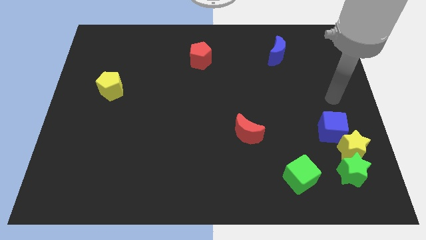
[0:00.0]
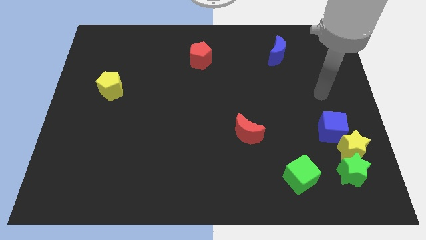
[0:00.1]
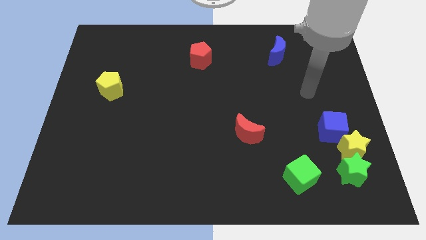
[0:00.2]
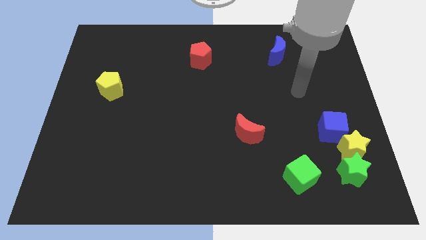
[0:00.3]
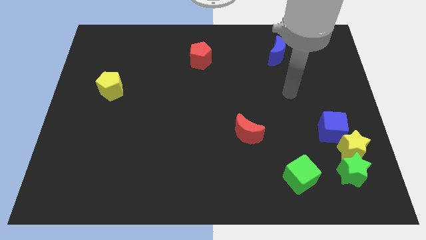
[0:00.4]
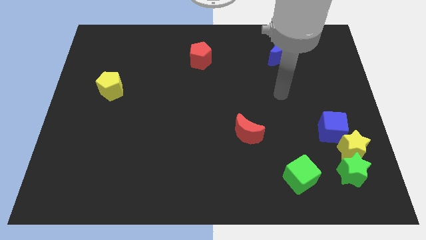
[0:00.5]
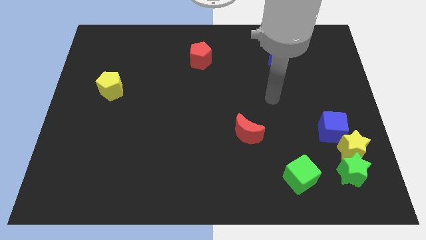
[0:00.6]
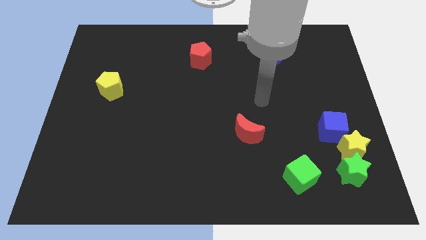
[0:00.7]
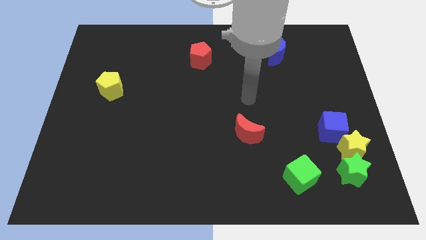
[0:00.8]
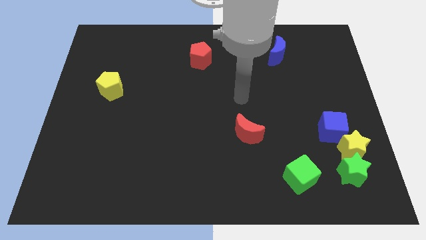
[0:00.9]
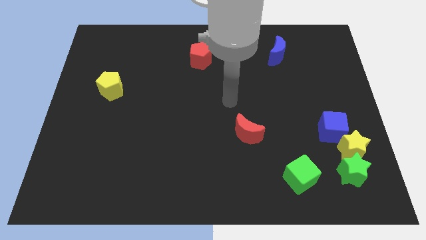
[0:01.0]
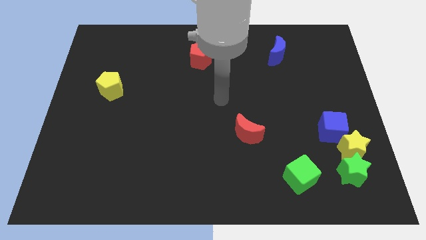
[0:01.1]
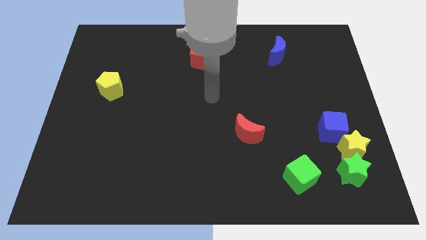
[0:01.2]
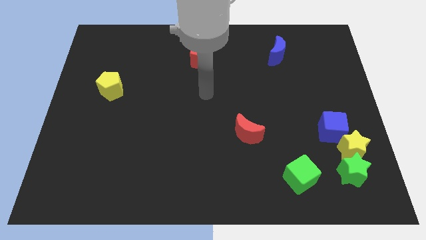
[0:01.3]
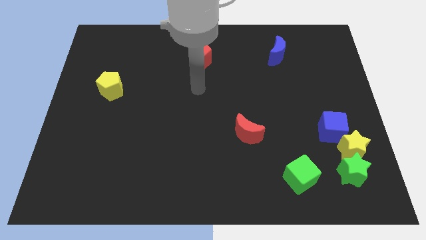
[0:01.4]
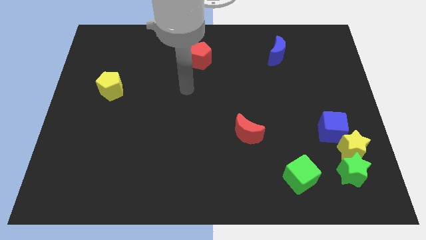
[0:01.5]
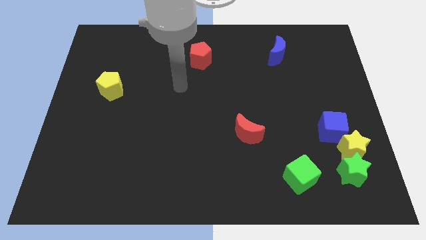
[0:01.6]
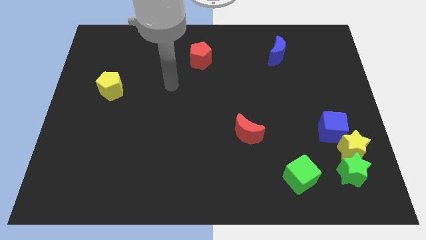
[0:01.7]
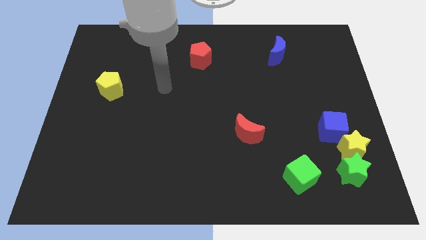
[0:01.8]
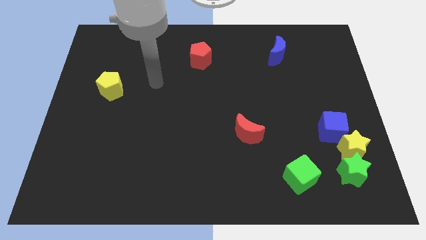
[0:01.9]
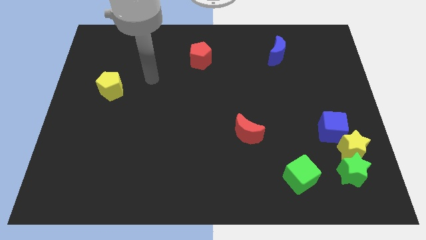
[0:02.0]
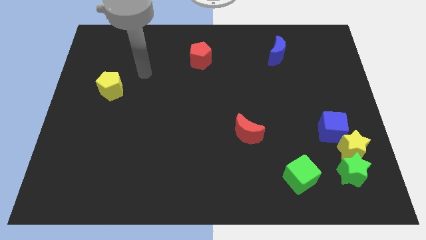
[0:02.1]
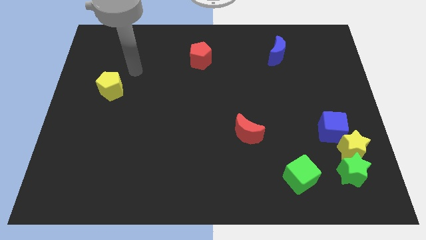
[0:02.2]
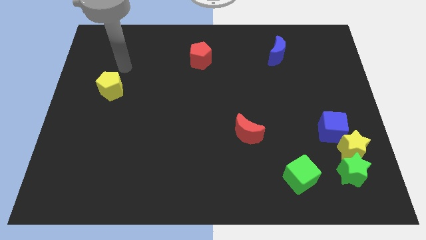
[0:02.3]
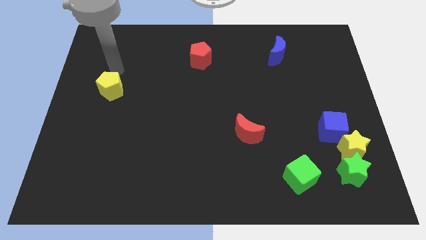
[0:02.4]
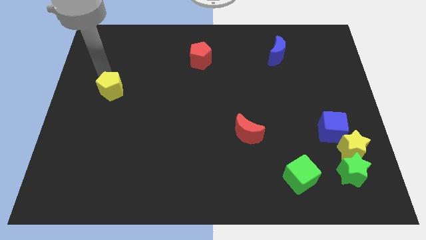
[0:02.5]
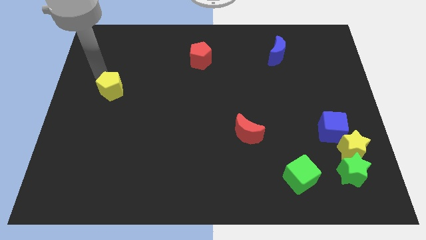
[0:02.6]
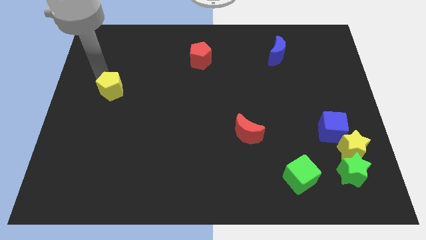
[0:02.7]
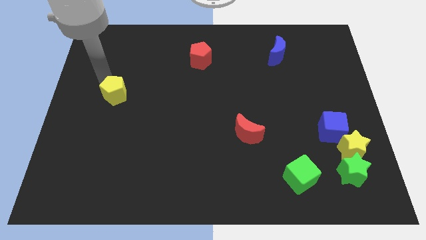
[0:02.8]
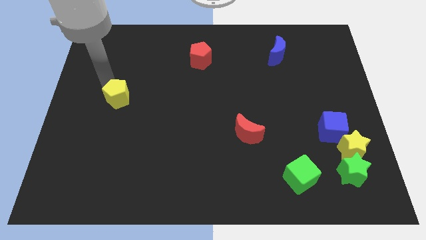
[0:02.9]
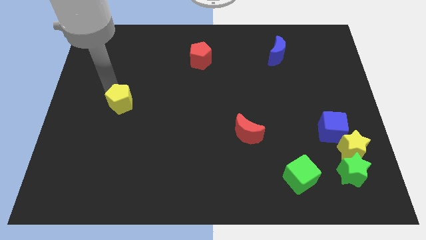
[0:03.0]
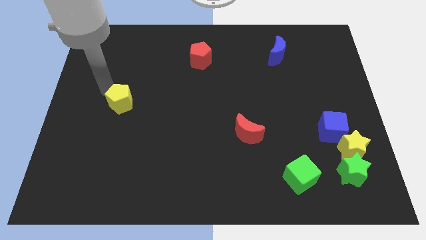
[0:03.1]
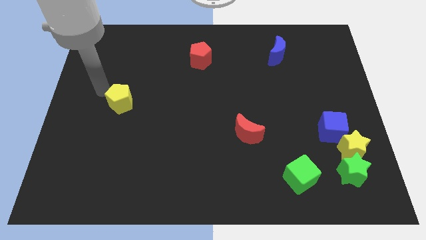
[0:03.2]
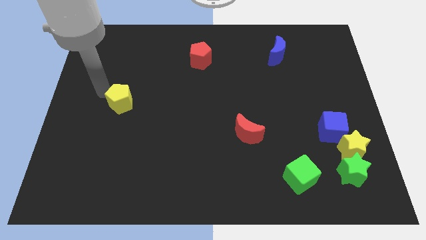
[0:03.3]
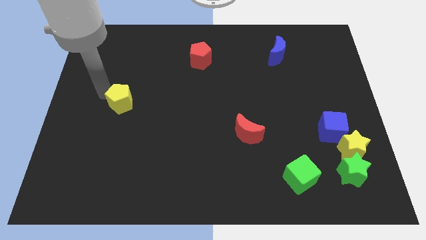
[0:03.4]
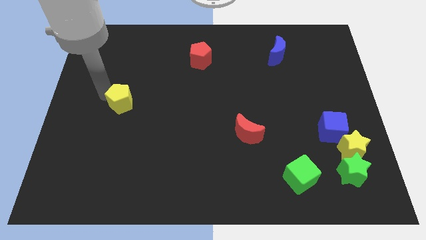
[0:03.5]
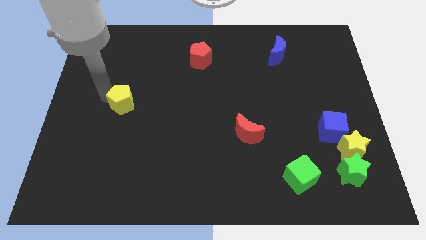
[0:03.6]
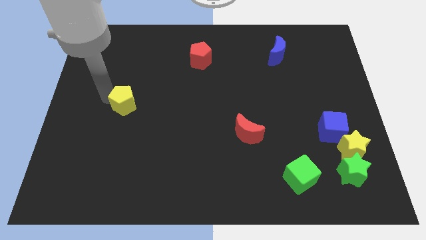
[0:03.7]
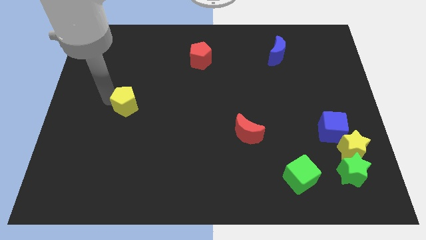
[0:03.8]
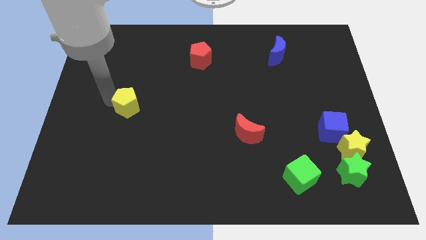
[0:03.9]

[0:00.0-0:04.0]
push the yellow pentagon down and then to the right slightly

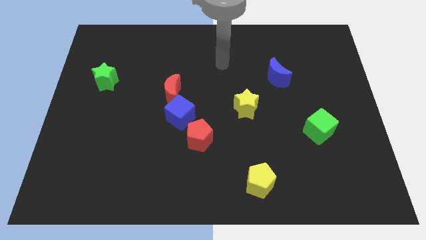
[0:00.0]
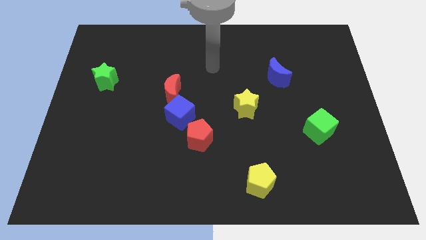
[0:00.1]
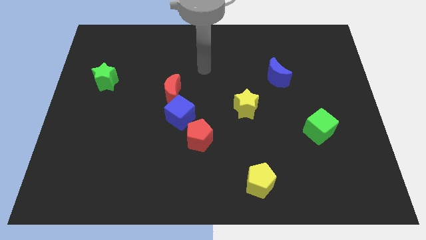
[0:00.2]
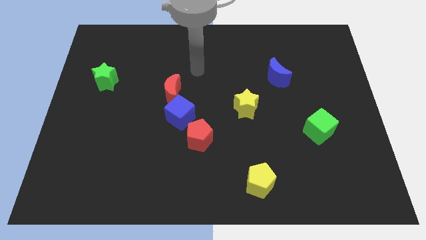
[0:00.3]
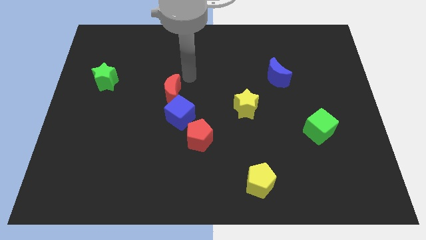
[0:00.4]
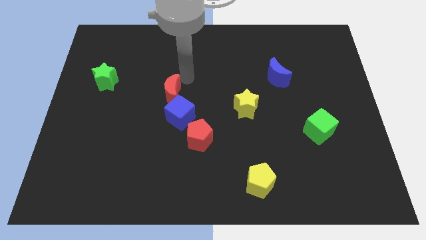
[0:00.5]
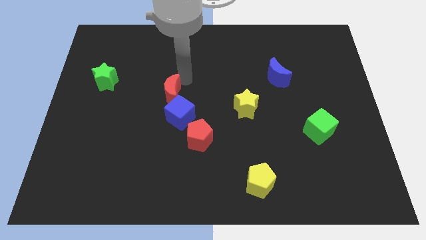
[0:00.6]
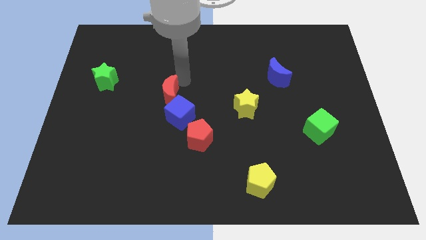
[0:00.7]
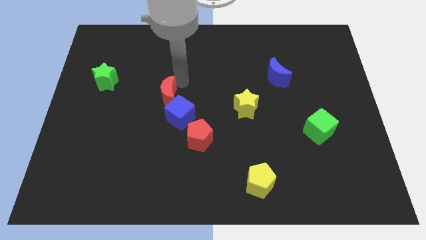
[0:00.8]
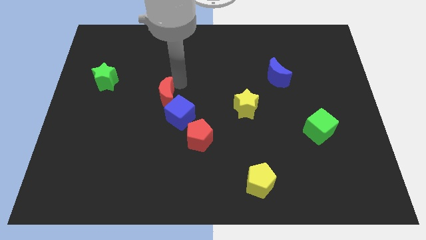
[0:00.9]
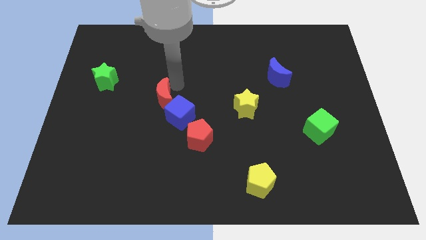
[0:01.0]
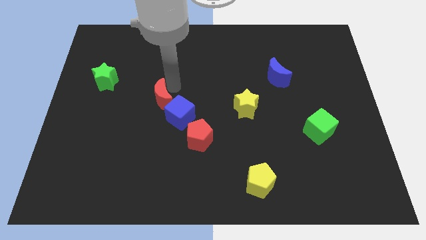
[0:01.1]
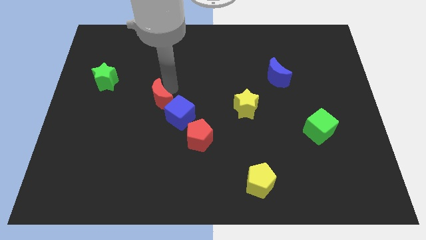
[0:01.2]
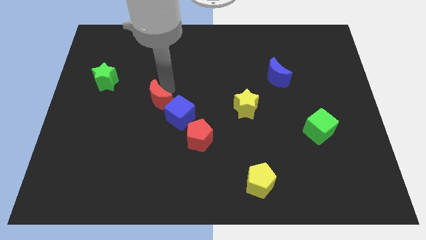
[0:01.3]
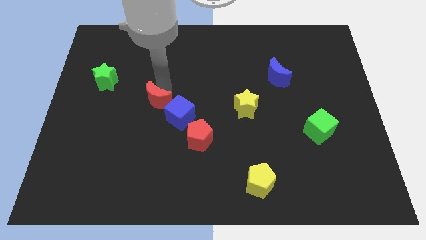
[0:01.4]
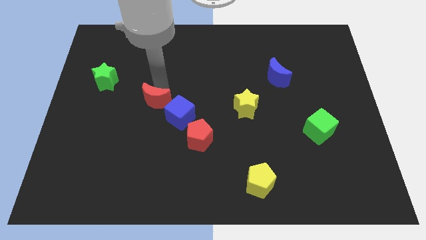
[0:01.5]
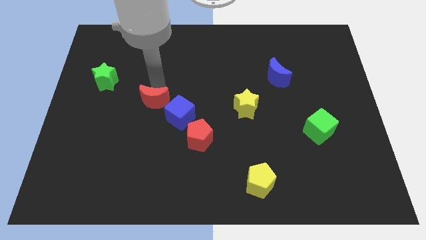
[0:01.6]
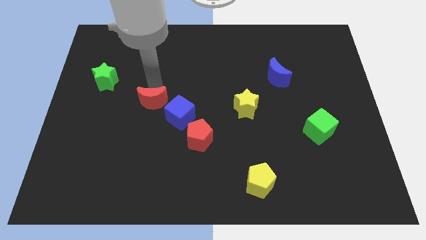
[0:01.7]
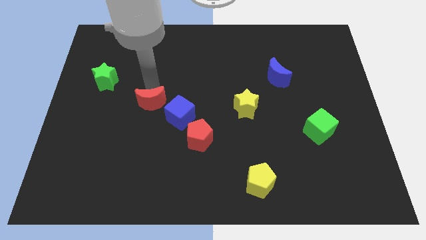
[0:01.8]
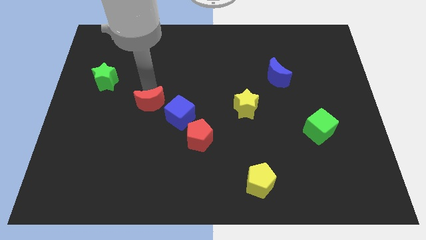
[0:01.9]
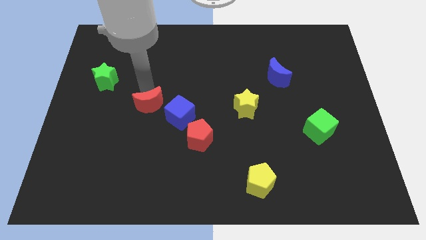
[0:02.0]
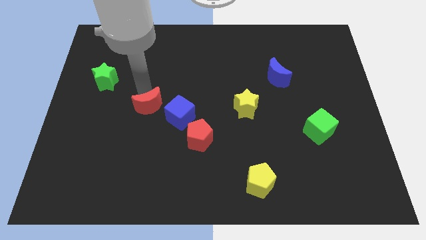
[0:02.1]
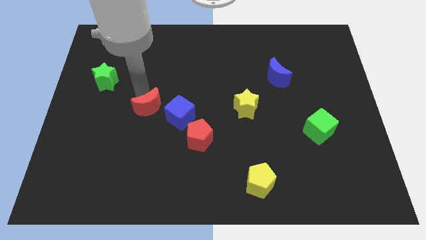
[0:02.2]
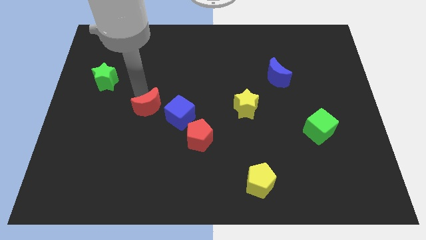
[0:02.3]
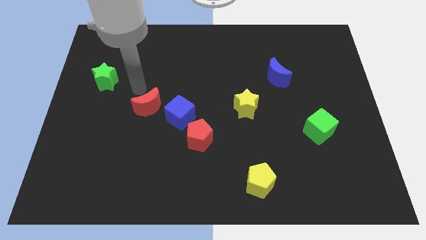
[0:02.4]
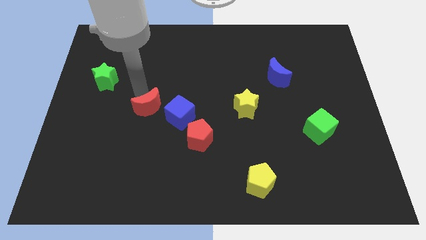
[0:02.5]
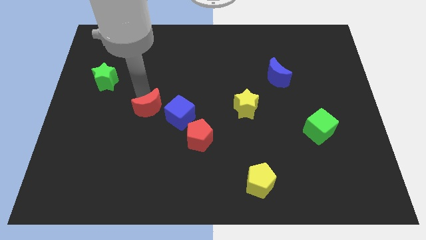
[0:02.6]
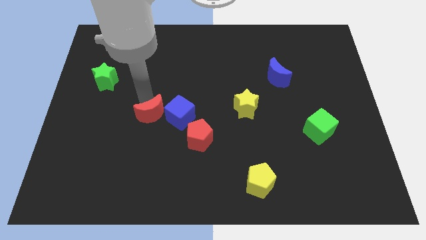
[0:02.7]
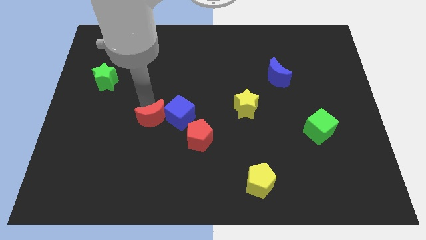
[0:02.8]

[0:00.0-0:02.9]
slide the red moon a bit down

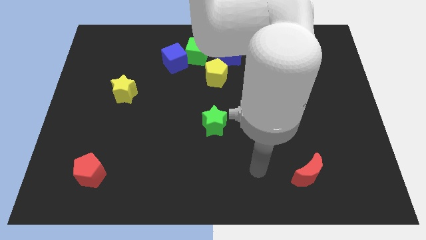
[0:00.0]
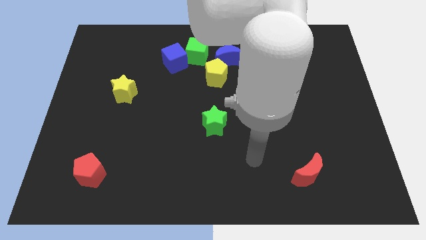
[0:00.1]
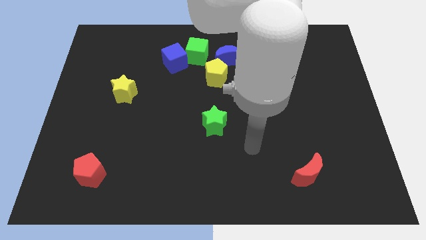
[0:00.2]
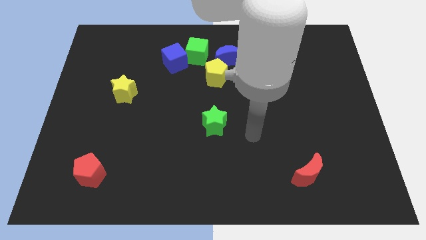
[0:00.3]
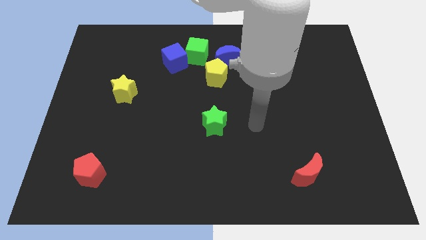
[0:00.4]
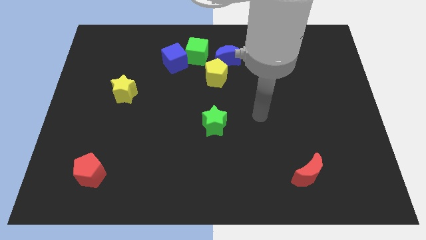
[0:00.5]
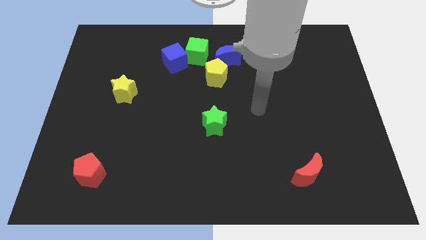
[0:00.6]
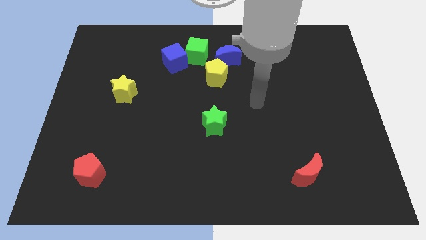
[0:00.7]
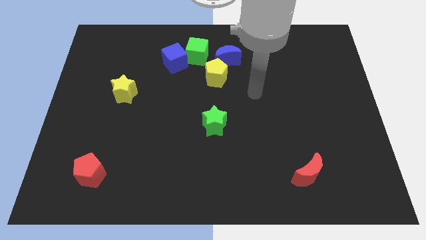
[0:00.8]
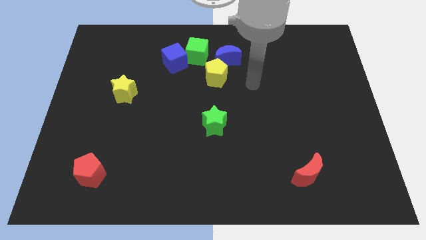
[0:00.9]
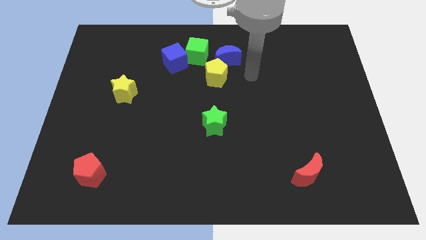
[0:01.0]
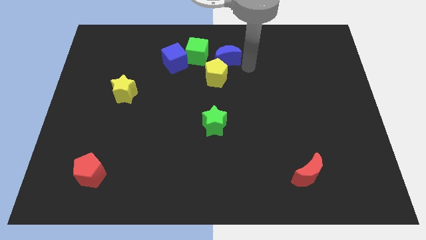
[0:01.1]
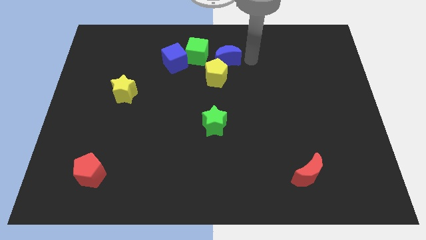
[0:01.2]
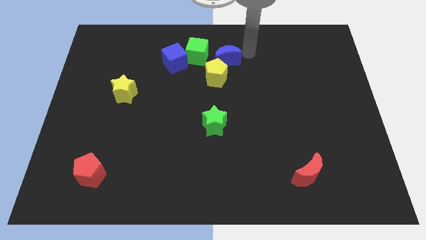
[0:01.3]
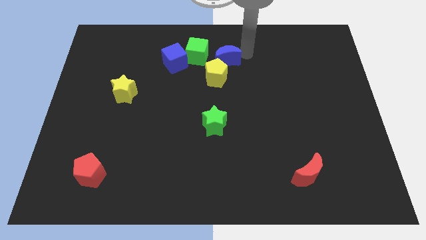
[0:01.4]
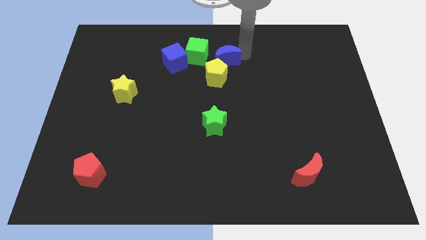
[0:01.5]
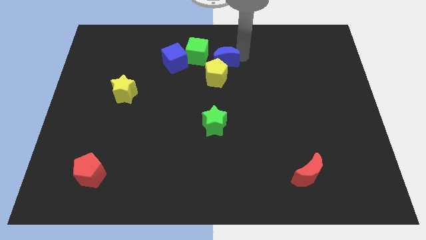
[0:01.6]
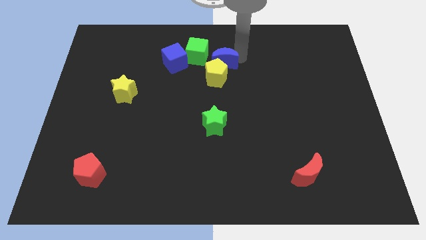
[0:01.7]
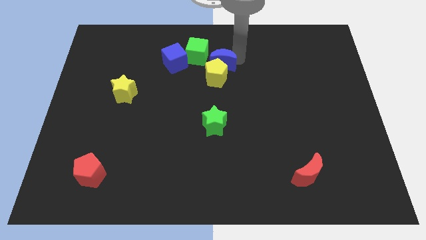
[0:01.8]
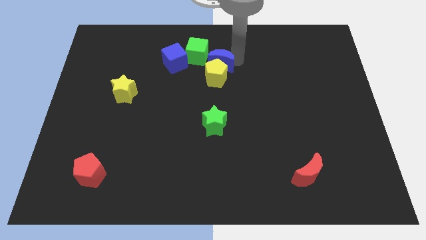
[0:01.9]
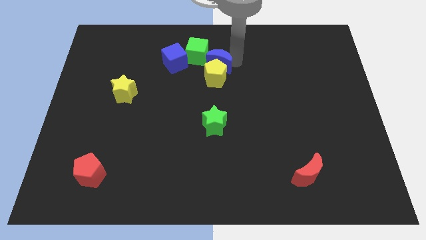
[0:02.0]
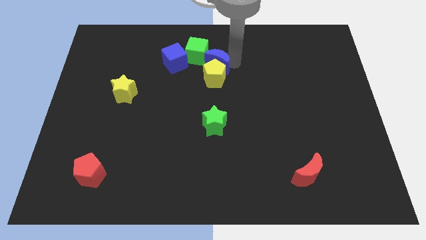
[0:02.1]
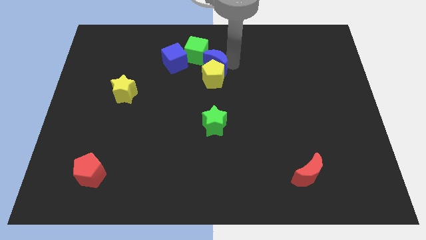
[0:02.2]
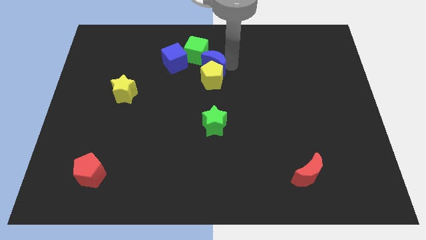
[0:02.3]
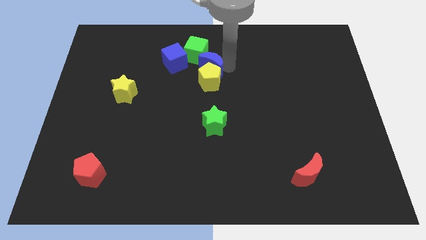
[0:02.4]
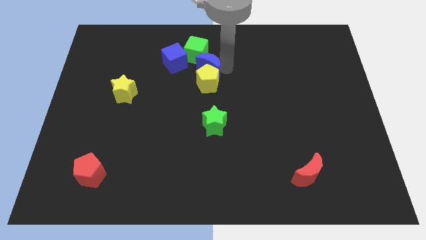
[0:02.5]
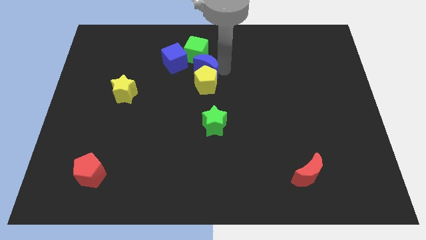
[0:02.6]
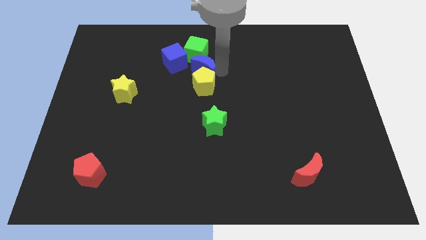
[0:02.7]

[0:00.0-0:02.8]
move the blue moon down and left a bit
